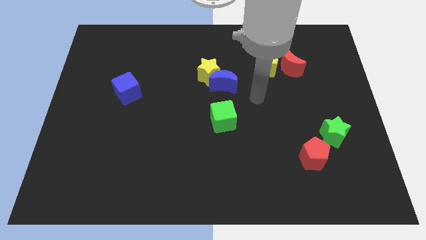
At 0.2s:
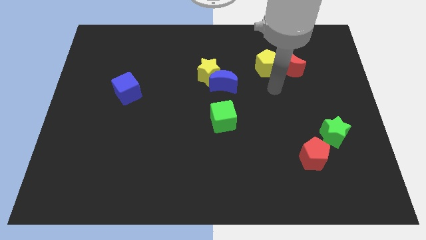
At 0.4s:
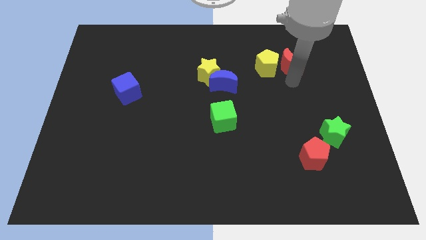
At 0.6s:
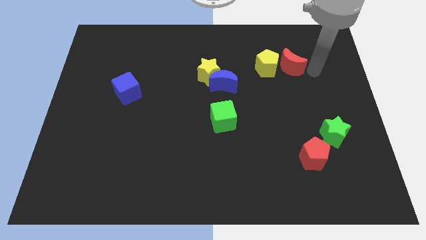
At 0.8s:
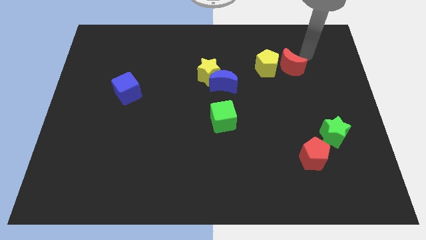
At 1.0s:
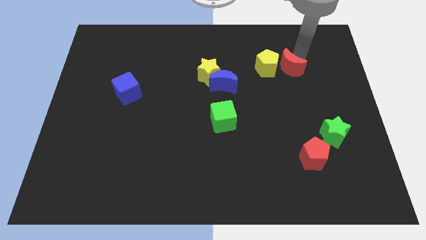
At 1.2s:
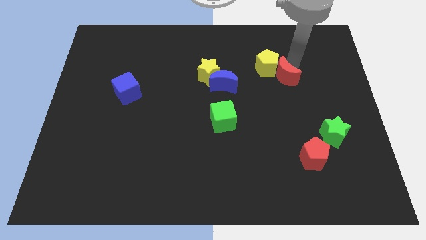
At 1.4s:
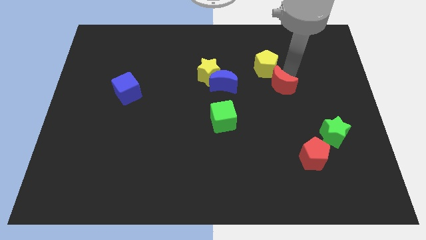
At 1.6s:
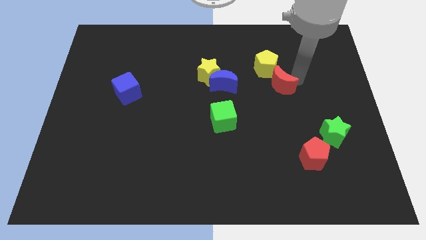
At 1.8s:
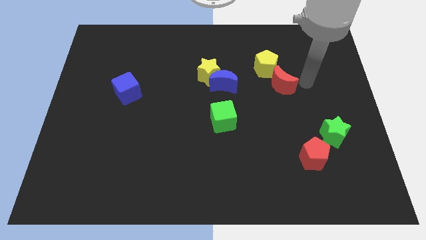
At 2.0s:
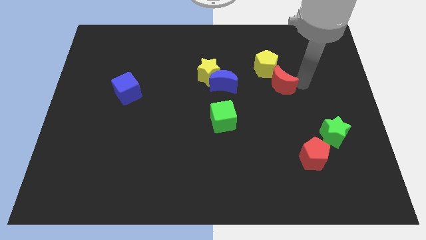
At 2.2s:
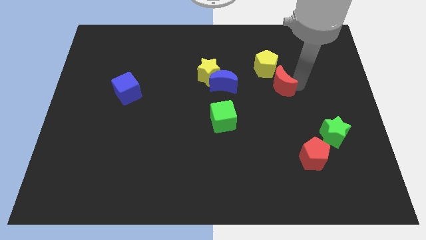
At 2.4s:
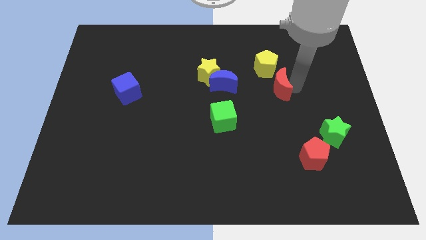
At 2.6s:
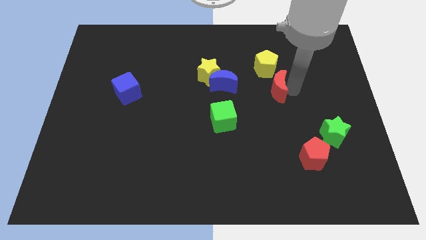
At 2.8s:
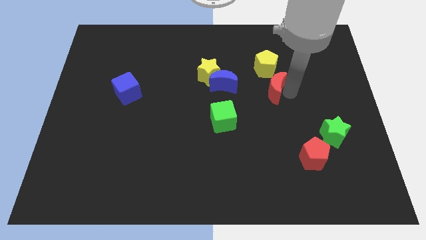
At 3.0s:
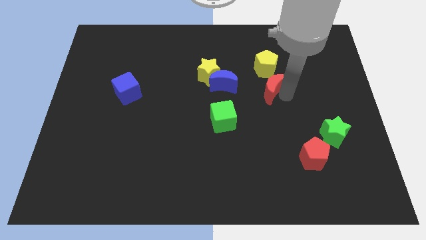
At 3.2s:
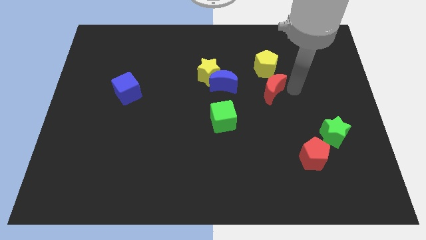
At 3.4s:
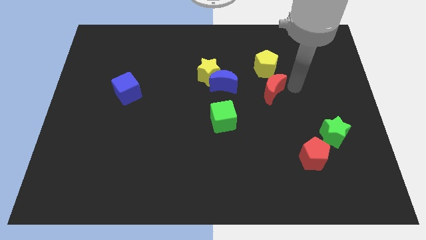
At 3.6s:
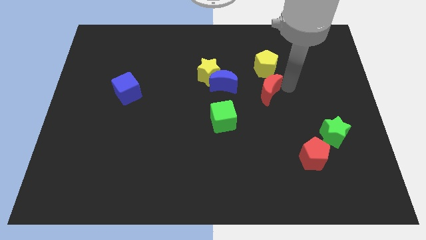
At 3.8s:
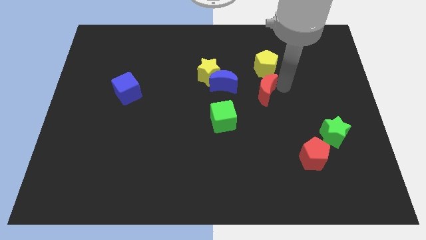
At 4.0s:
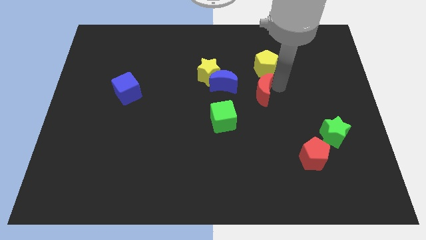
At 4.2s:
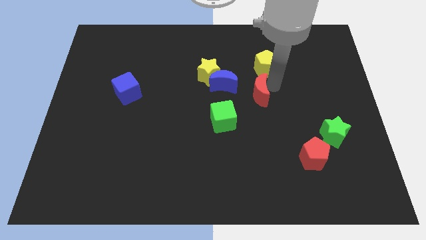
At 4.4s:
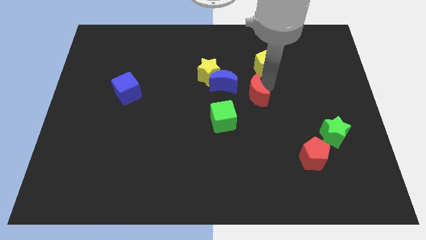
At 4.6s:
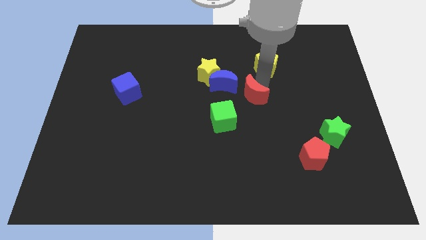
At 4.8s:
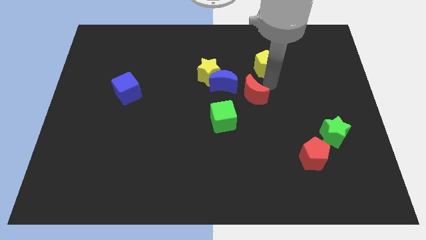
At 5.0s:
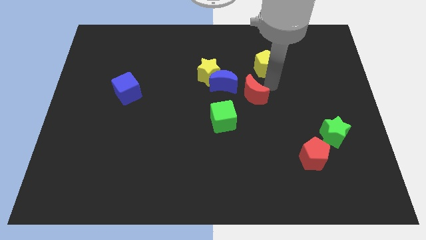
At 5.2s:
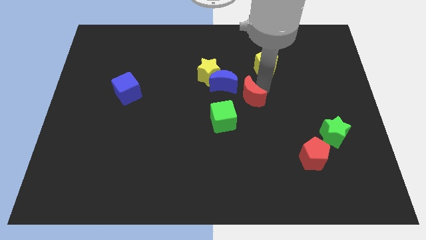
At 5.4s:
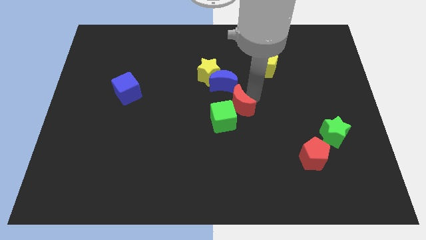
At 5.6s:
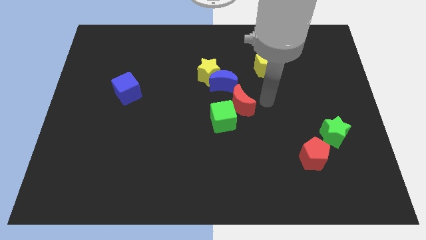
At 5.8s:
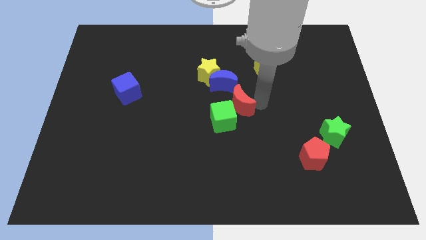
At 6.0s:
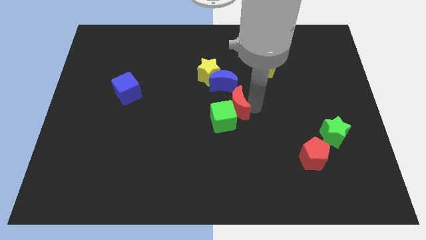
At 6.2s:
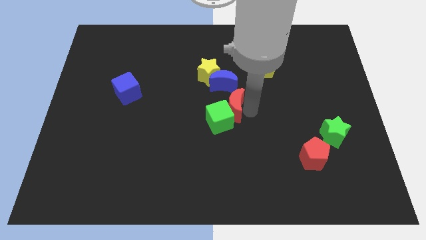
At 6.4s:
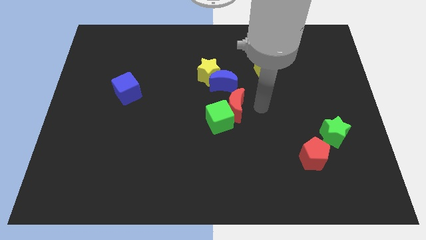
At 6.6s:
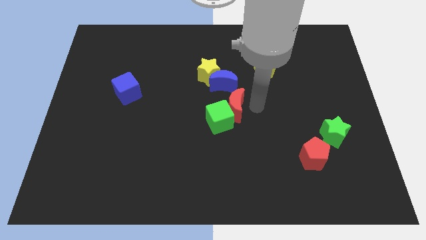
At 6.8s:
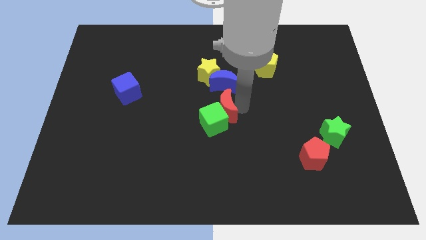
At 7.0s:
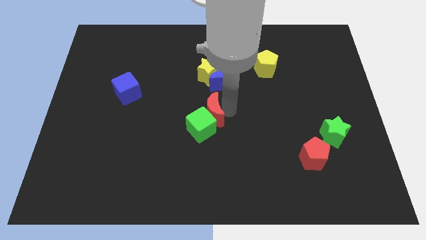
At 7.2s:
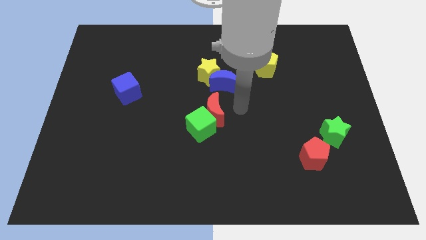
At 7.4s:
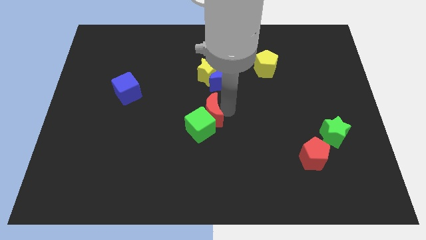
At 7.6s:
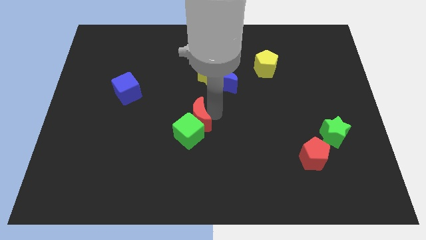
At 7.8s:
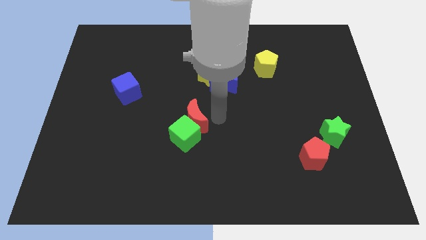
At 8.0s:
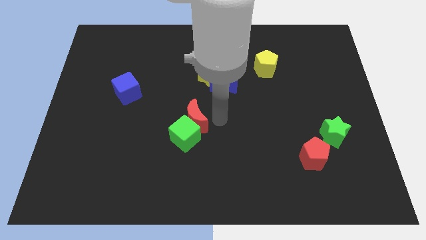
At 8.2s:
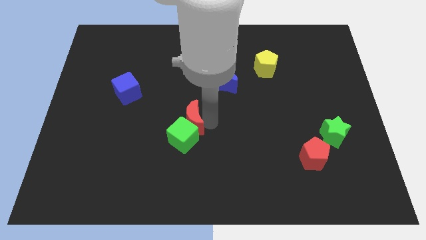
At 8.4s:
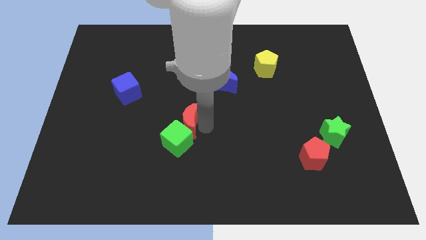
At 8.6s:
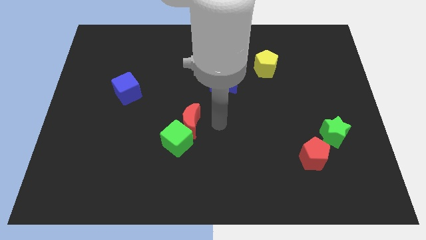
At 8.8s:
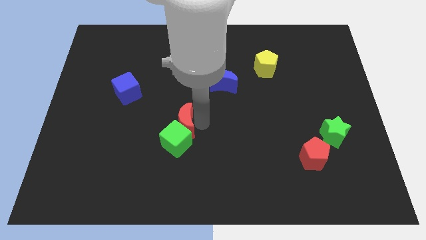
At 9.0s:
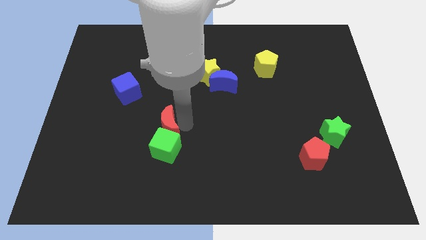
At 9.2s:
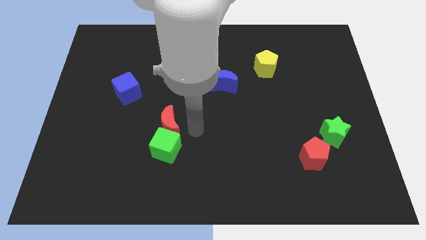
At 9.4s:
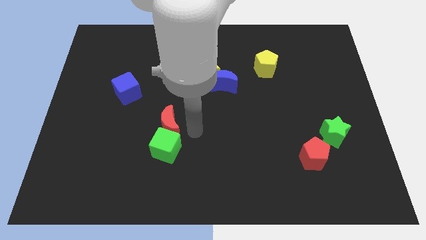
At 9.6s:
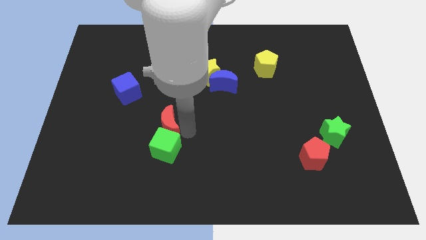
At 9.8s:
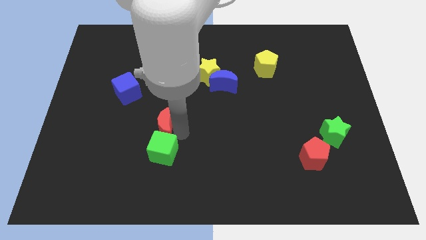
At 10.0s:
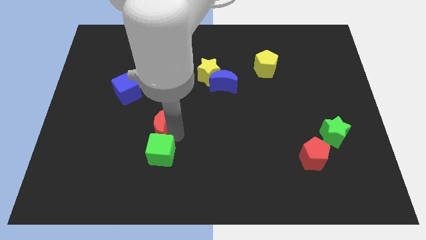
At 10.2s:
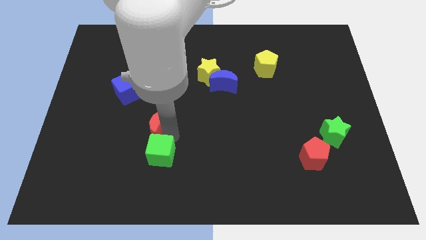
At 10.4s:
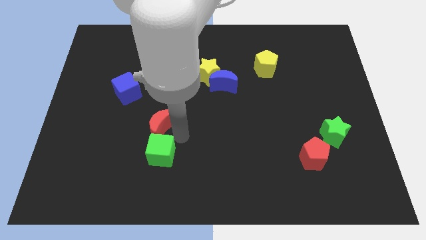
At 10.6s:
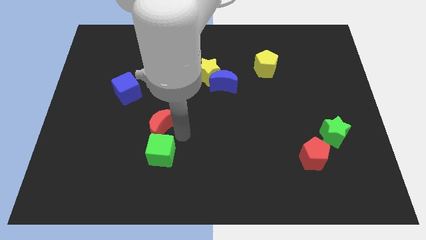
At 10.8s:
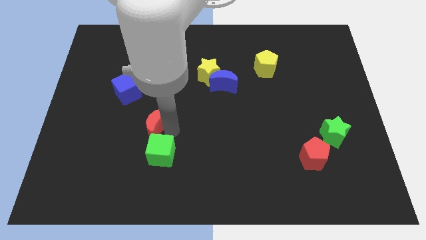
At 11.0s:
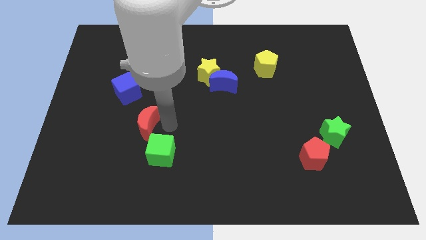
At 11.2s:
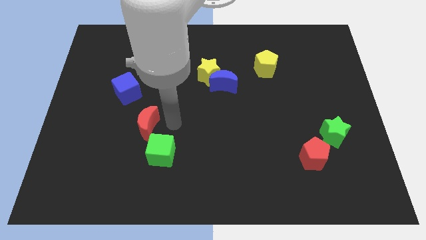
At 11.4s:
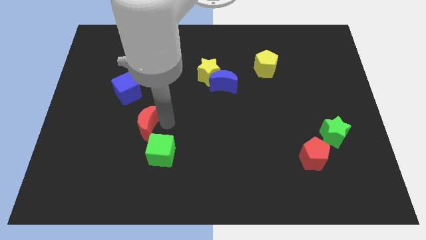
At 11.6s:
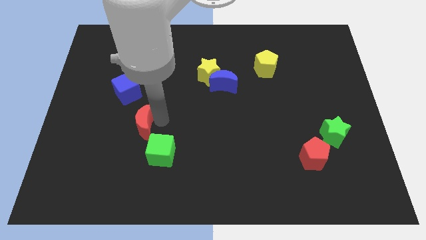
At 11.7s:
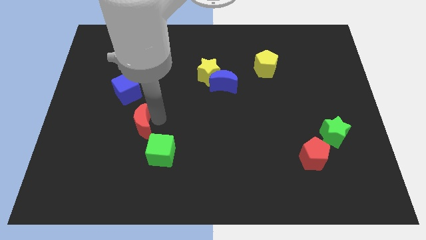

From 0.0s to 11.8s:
push the red moon below the blue cube
